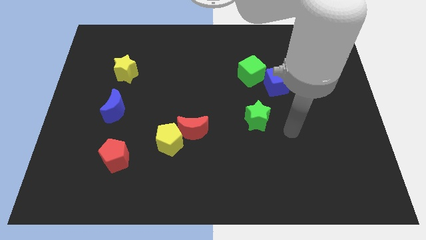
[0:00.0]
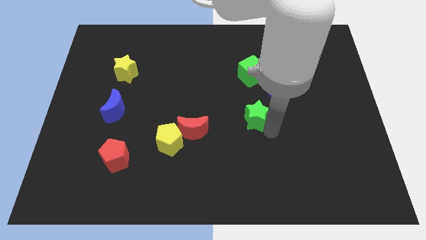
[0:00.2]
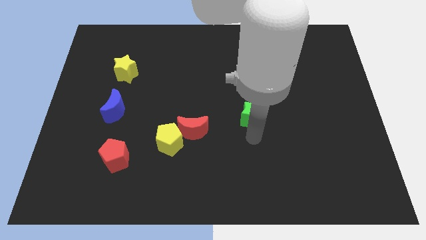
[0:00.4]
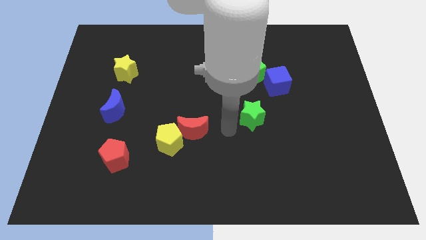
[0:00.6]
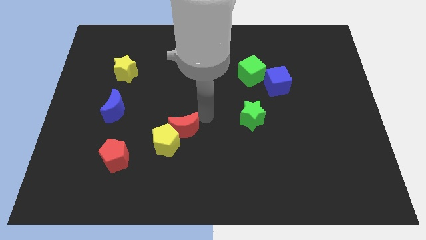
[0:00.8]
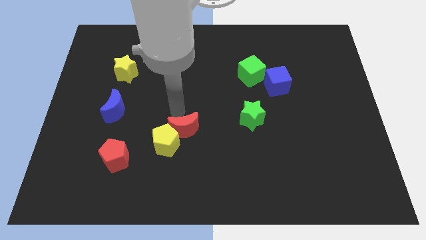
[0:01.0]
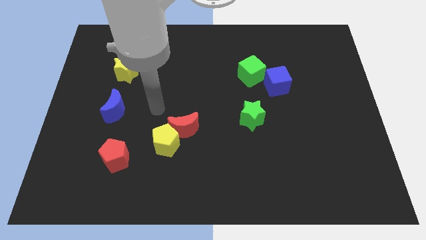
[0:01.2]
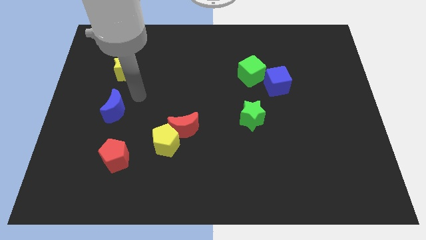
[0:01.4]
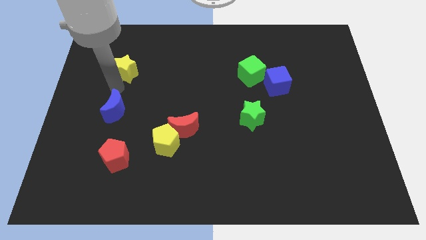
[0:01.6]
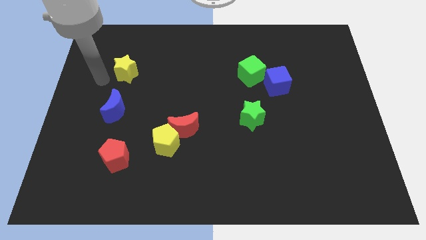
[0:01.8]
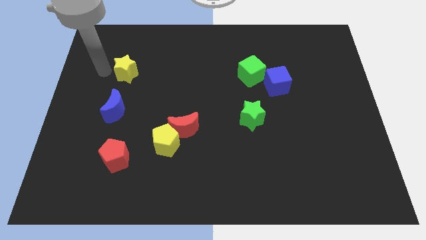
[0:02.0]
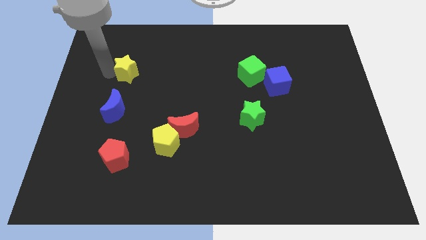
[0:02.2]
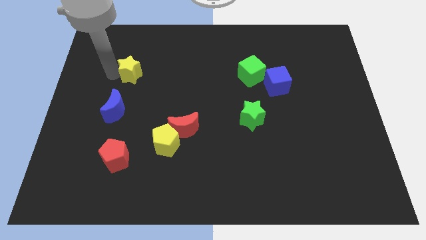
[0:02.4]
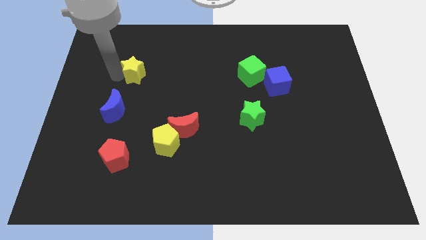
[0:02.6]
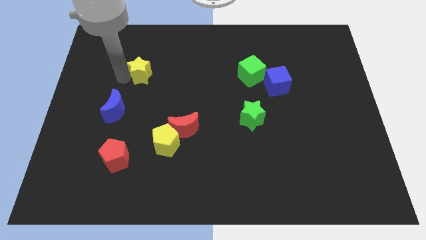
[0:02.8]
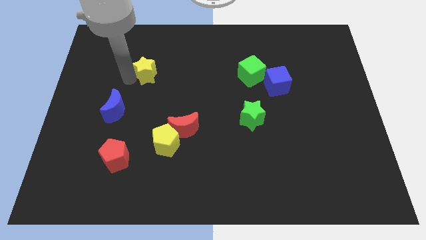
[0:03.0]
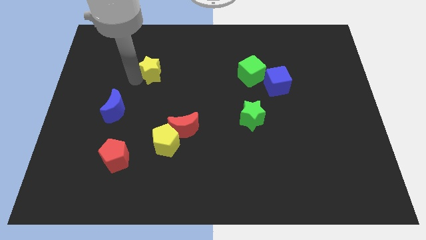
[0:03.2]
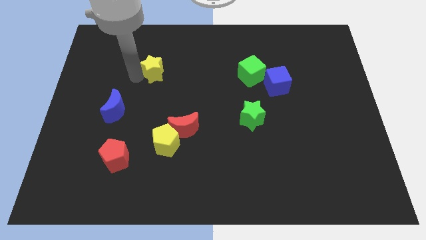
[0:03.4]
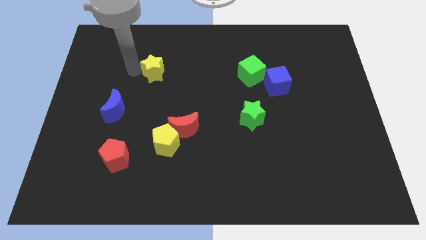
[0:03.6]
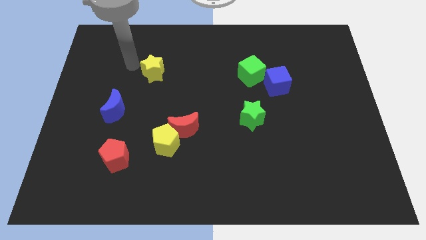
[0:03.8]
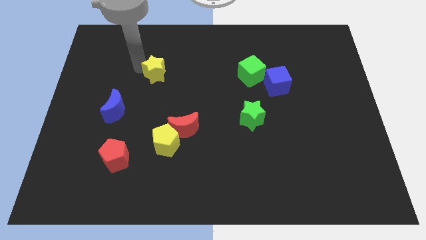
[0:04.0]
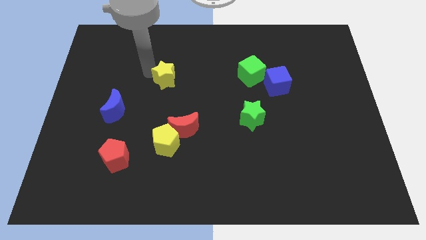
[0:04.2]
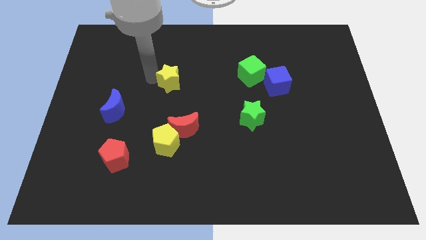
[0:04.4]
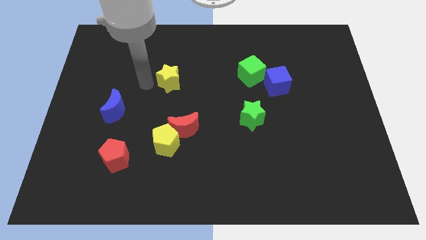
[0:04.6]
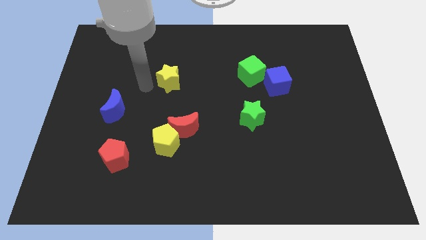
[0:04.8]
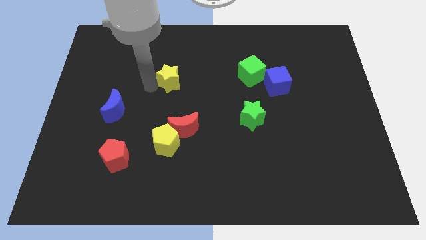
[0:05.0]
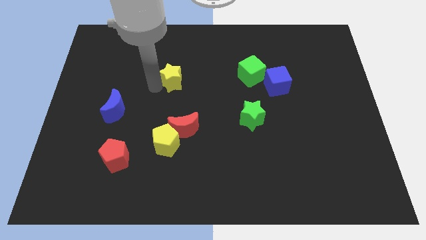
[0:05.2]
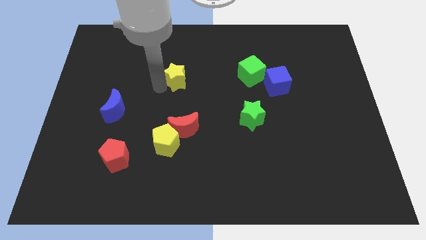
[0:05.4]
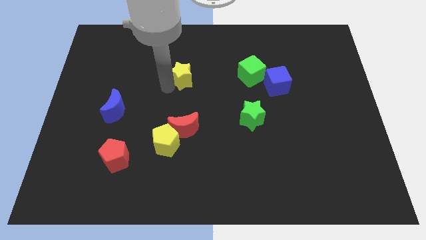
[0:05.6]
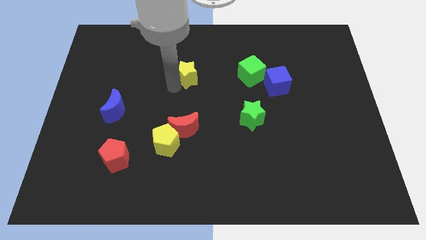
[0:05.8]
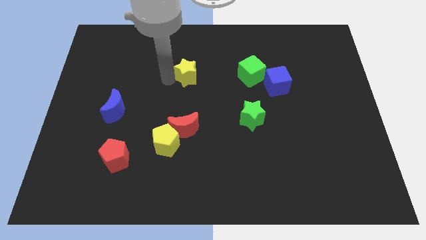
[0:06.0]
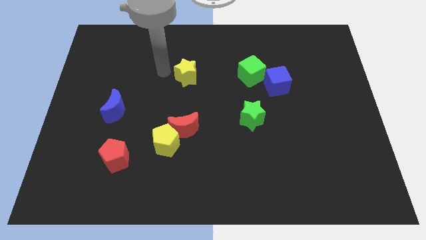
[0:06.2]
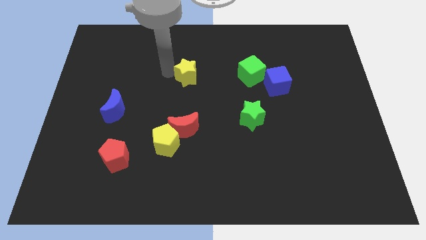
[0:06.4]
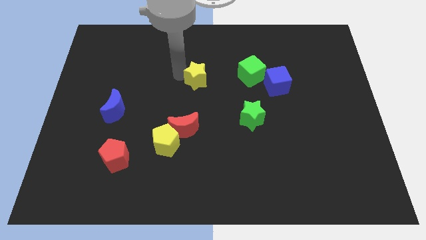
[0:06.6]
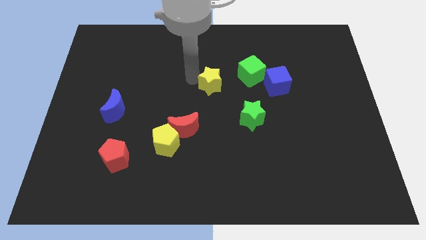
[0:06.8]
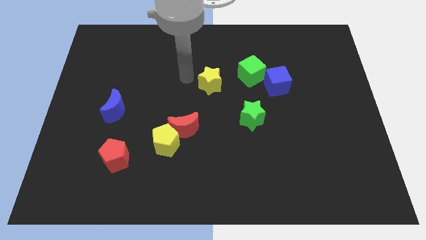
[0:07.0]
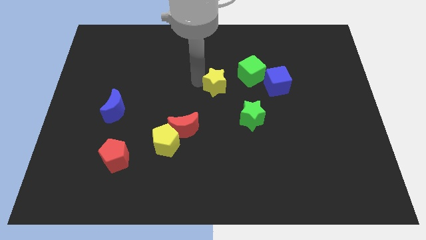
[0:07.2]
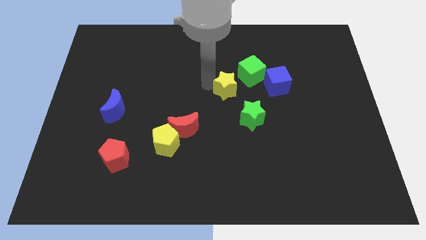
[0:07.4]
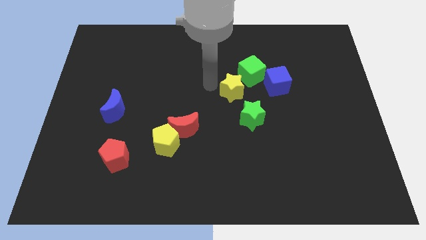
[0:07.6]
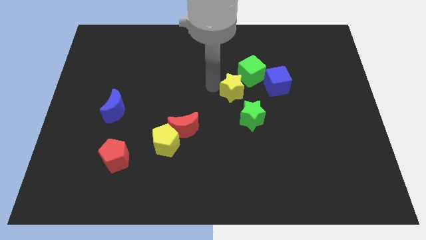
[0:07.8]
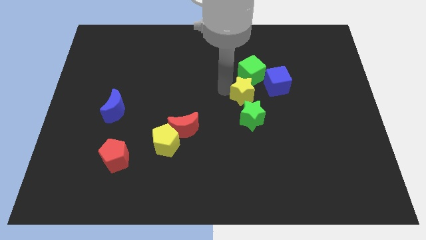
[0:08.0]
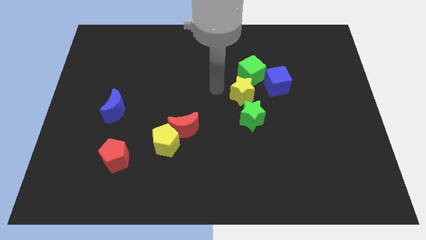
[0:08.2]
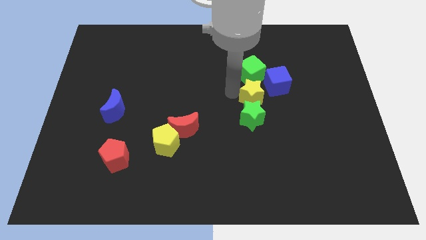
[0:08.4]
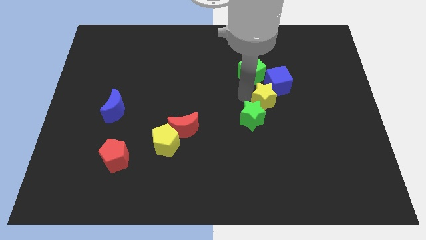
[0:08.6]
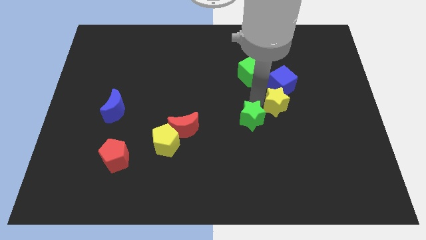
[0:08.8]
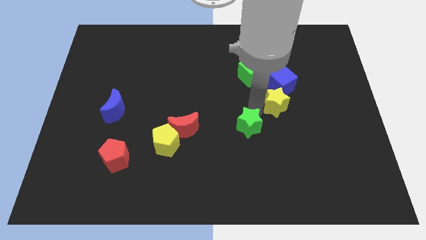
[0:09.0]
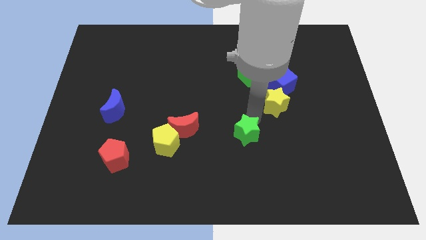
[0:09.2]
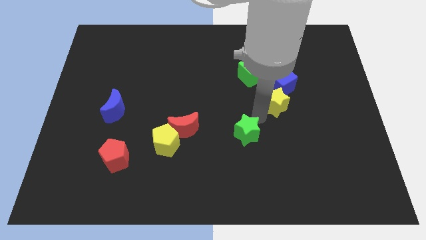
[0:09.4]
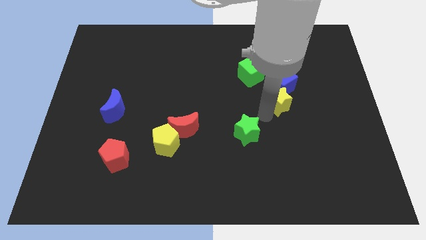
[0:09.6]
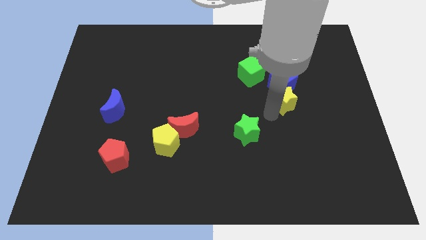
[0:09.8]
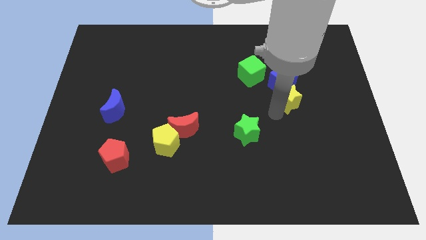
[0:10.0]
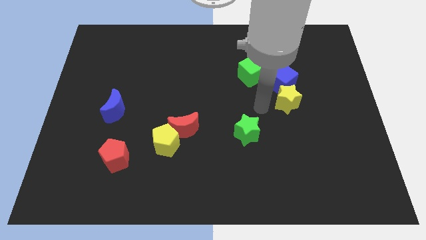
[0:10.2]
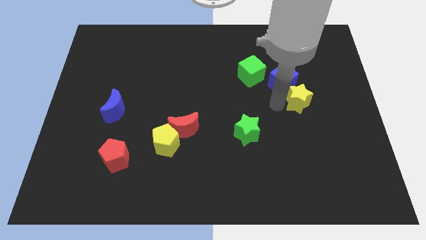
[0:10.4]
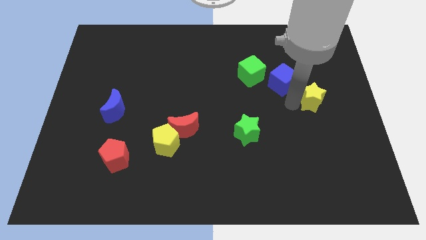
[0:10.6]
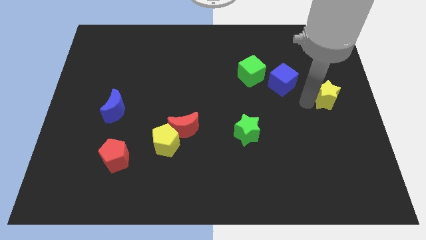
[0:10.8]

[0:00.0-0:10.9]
move the yellow star to the right side

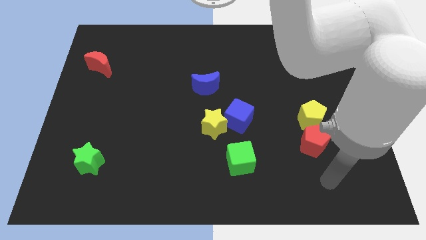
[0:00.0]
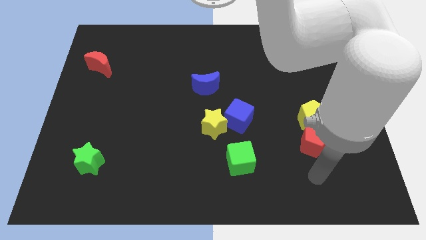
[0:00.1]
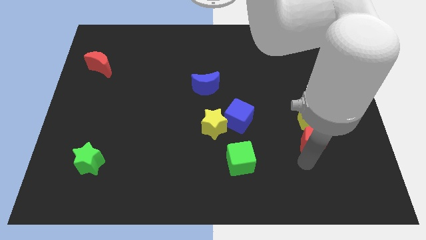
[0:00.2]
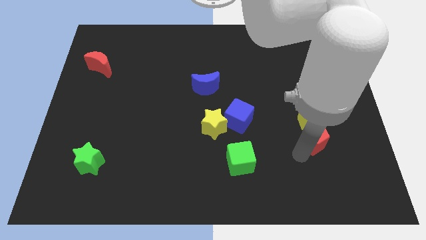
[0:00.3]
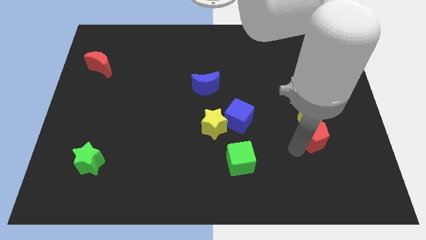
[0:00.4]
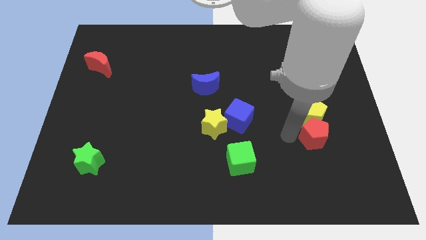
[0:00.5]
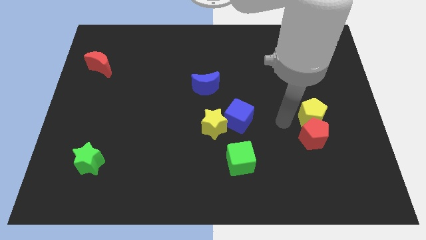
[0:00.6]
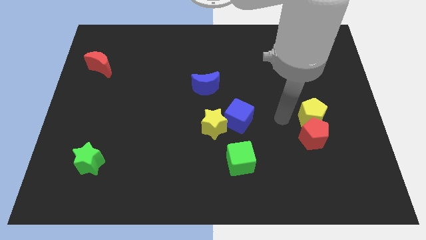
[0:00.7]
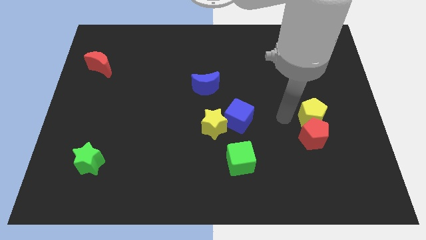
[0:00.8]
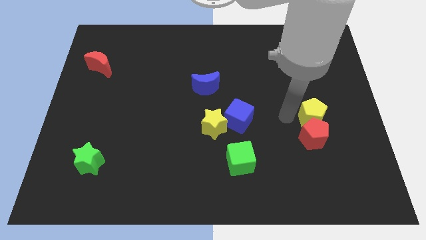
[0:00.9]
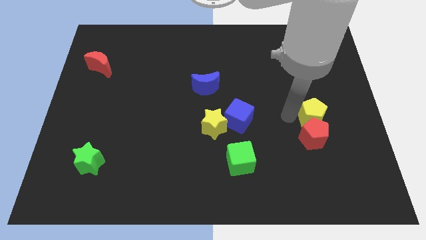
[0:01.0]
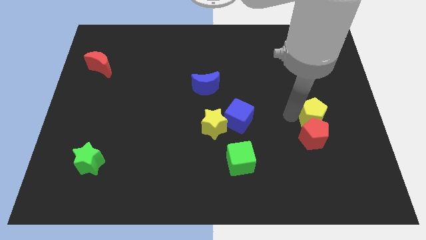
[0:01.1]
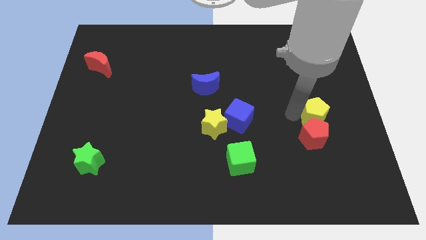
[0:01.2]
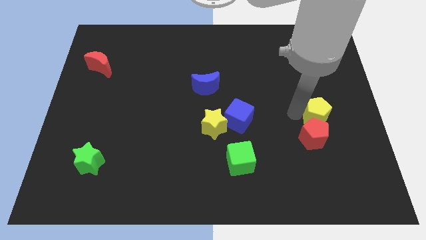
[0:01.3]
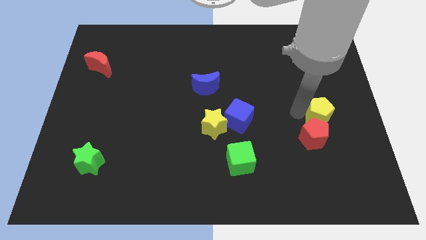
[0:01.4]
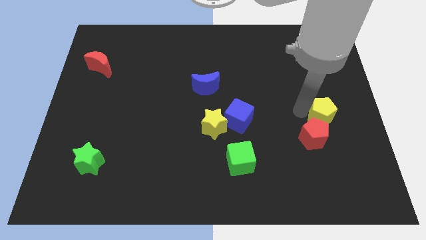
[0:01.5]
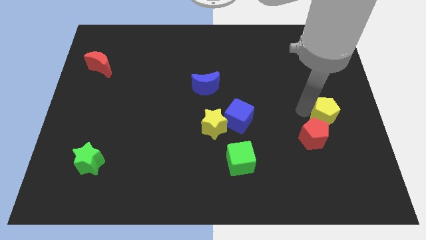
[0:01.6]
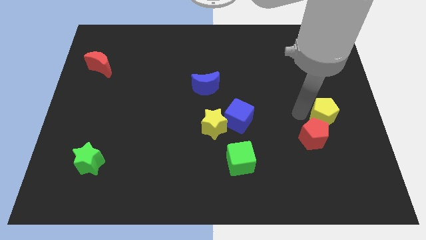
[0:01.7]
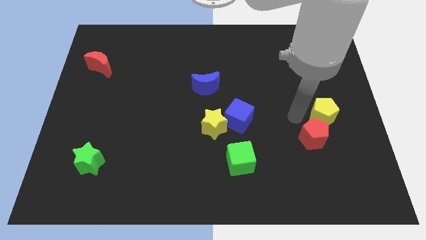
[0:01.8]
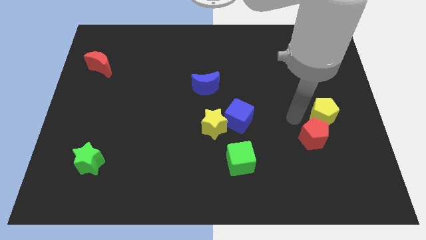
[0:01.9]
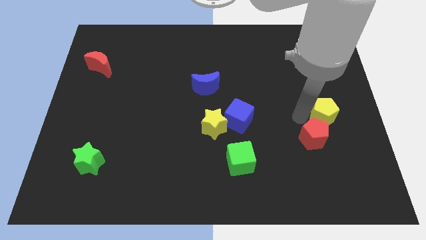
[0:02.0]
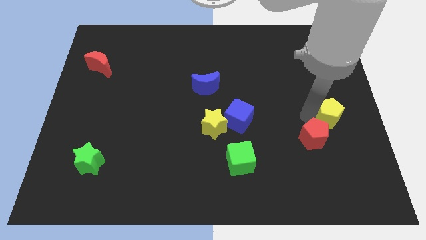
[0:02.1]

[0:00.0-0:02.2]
put the yellow pentagon to the right side of the board
